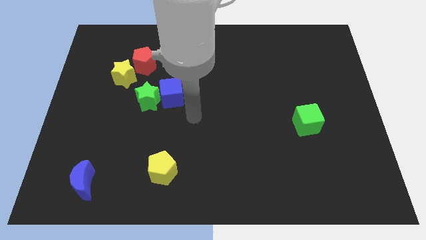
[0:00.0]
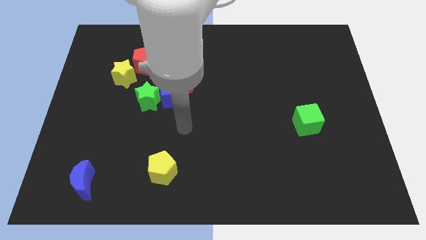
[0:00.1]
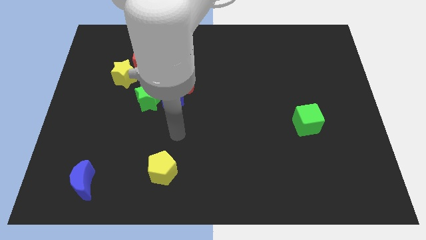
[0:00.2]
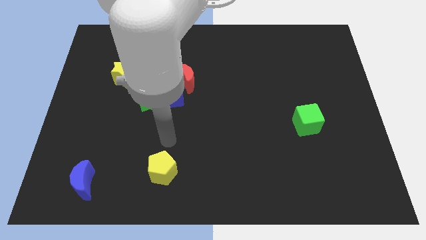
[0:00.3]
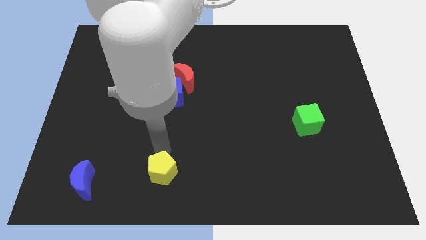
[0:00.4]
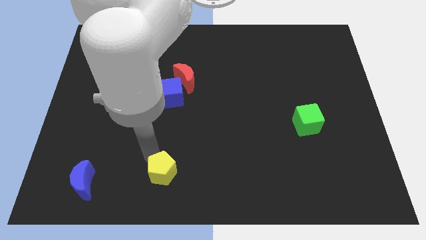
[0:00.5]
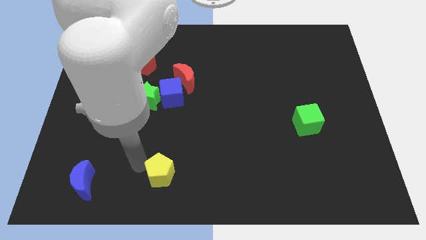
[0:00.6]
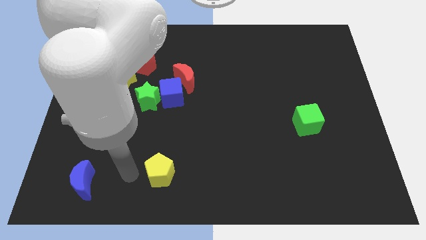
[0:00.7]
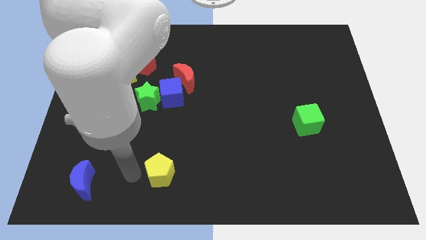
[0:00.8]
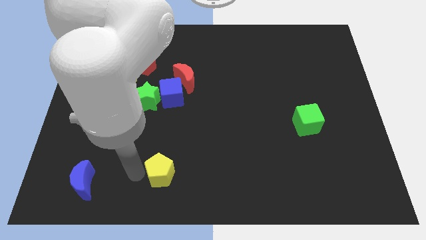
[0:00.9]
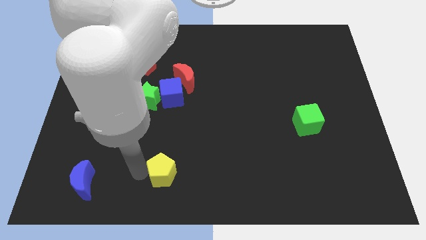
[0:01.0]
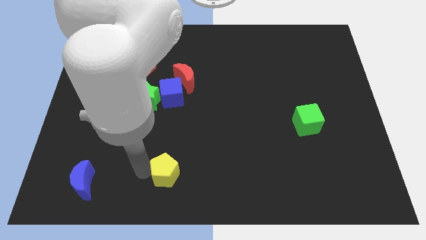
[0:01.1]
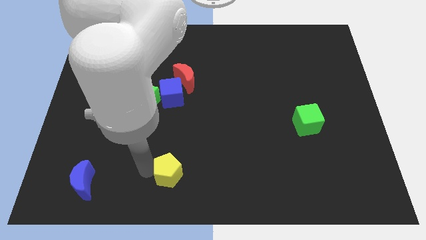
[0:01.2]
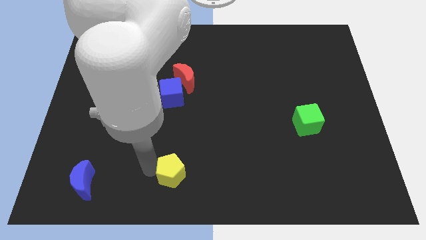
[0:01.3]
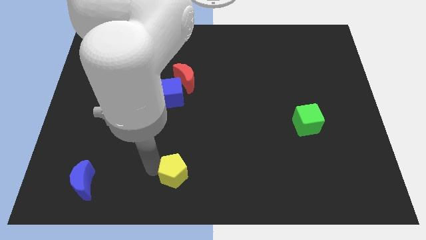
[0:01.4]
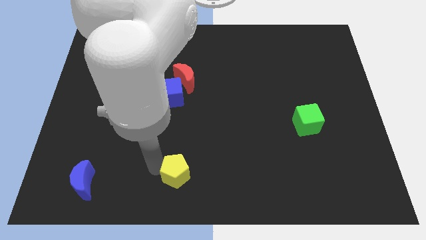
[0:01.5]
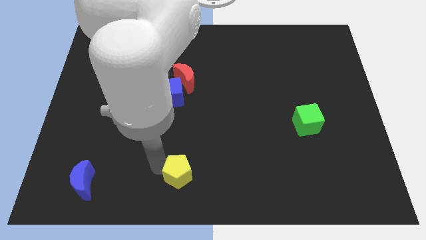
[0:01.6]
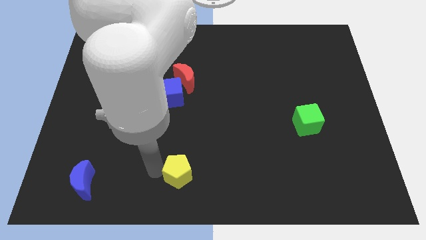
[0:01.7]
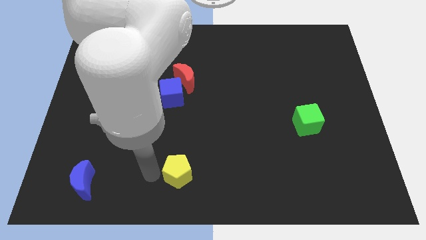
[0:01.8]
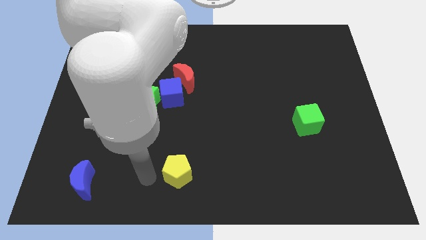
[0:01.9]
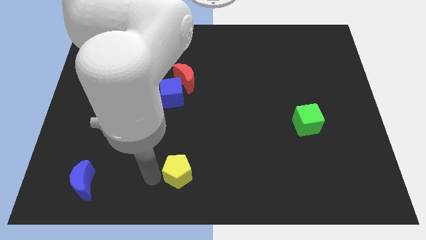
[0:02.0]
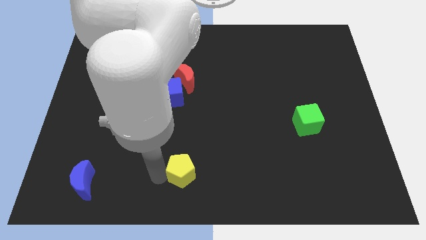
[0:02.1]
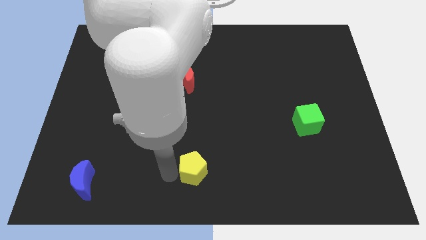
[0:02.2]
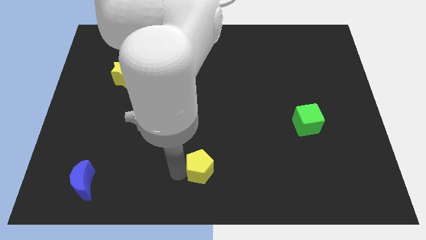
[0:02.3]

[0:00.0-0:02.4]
push the yellow pentagon a little bit to the right

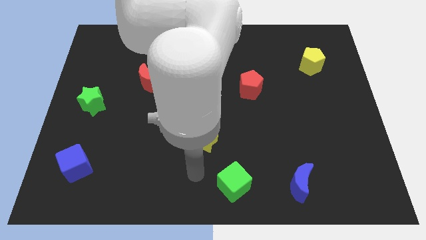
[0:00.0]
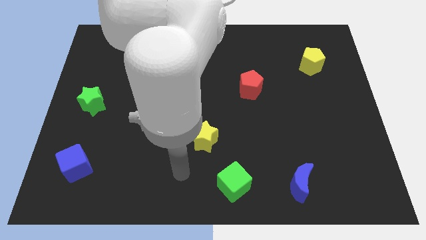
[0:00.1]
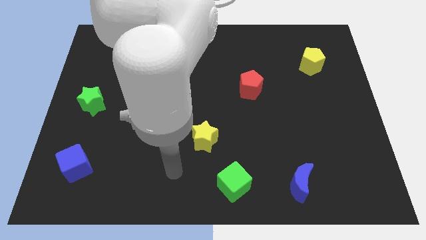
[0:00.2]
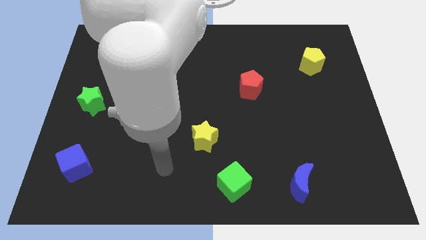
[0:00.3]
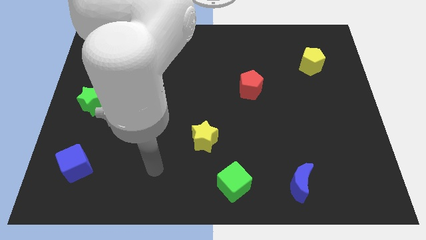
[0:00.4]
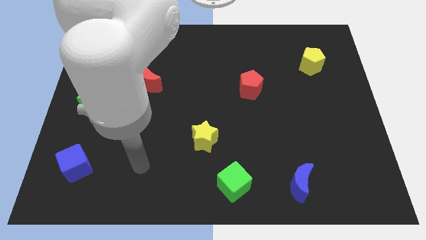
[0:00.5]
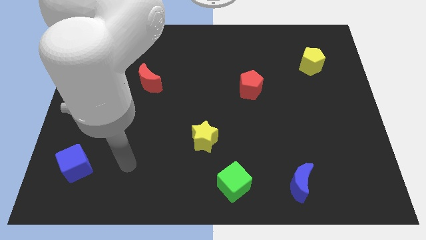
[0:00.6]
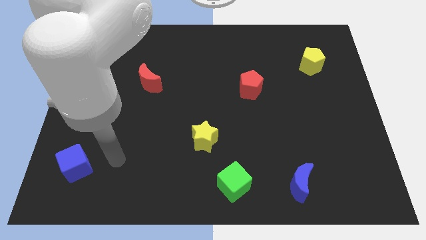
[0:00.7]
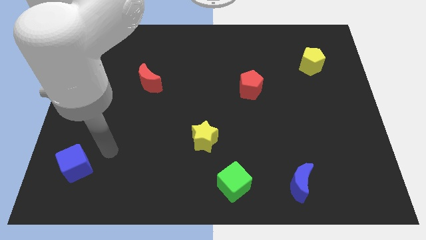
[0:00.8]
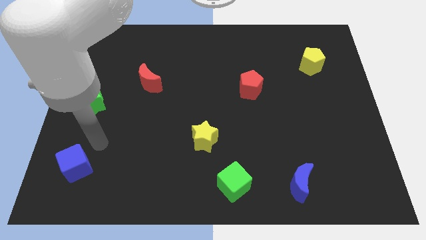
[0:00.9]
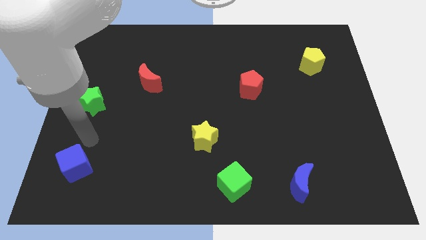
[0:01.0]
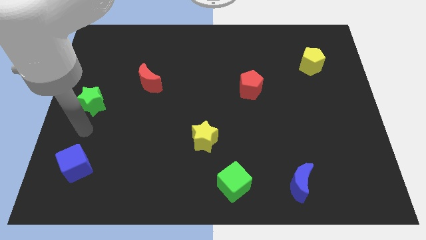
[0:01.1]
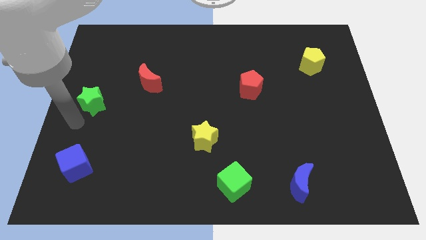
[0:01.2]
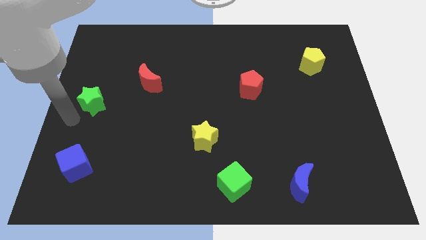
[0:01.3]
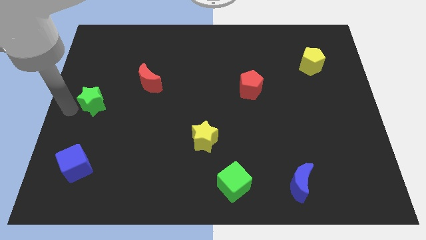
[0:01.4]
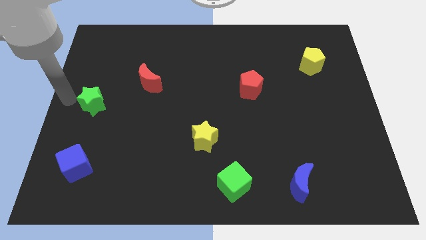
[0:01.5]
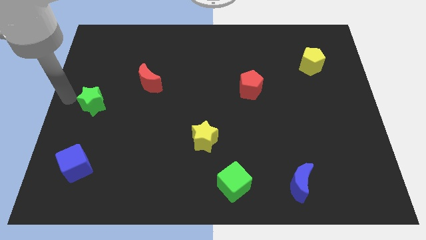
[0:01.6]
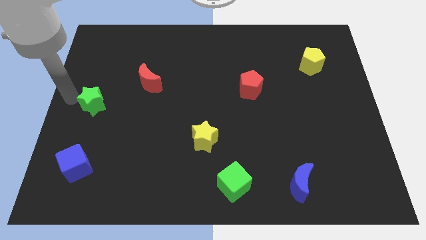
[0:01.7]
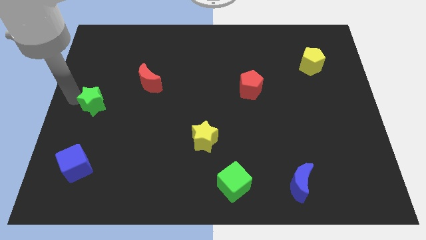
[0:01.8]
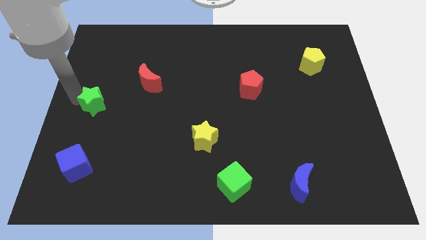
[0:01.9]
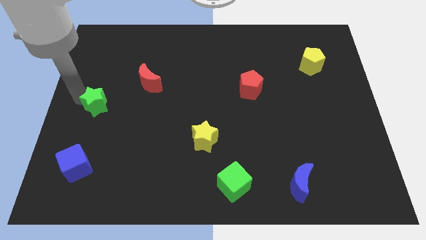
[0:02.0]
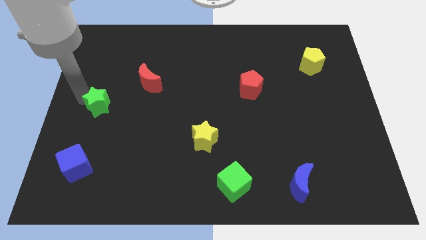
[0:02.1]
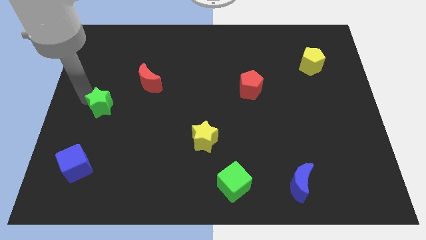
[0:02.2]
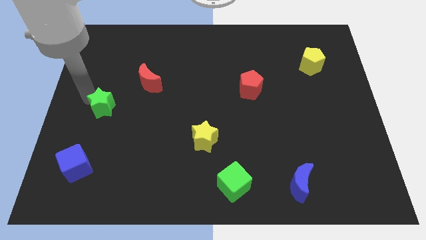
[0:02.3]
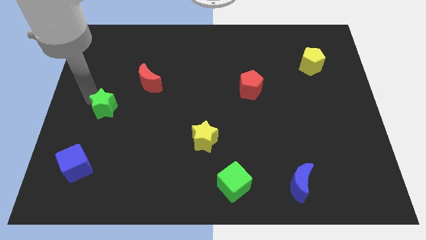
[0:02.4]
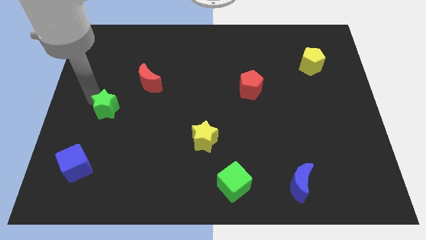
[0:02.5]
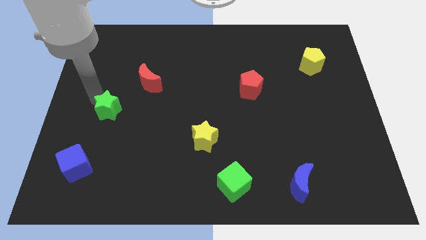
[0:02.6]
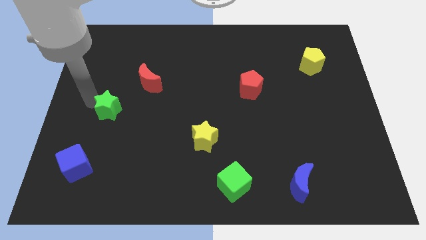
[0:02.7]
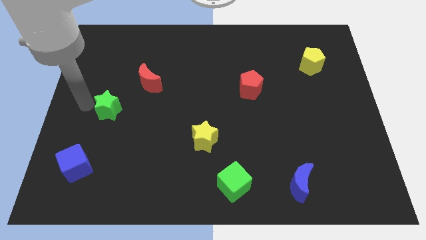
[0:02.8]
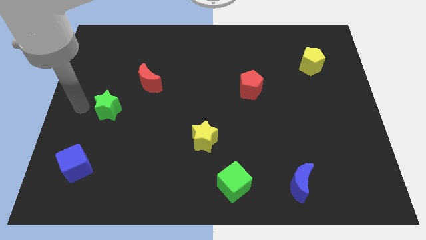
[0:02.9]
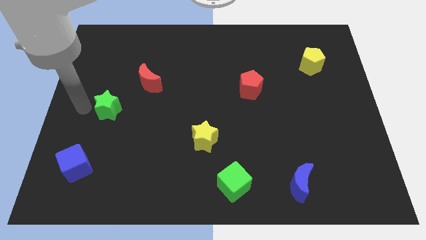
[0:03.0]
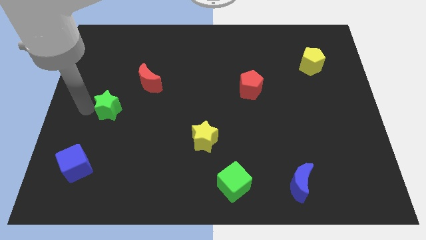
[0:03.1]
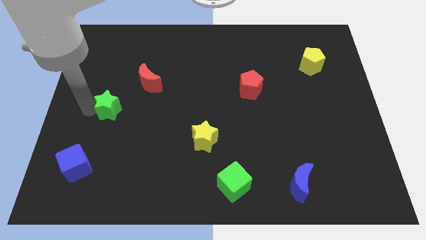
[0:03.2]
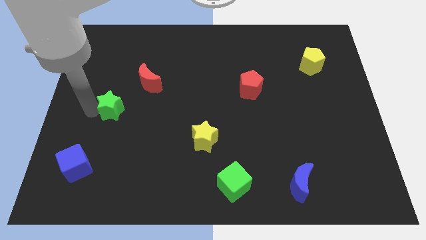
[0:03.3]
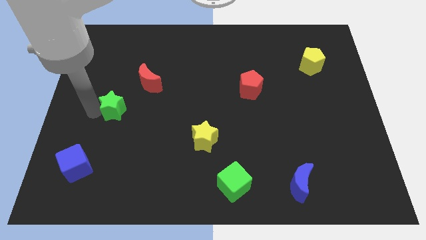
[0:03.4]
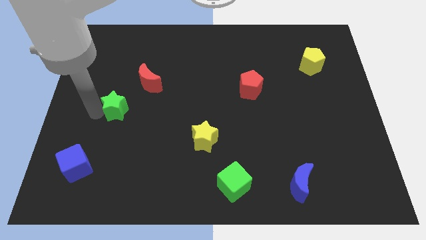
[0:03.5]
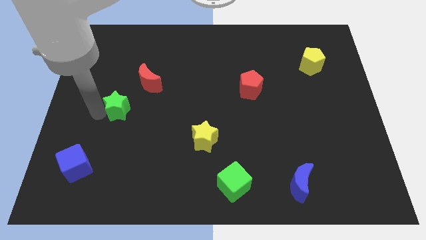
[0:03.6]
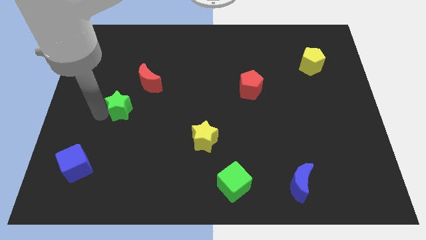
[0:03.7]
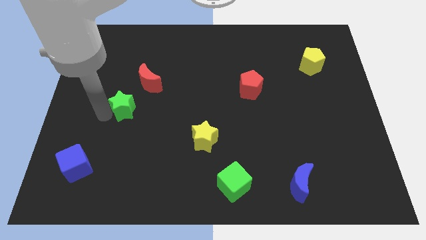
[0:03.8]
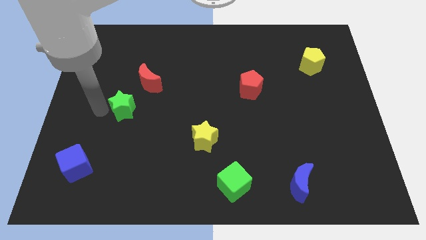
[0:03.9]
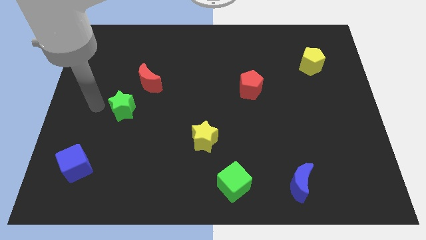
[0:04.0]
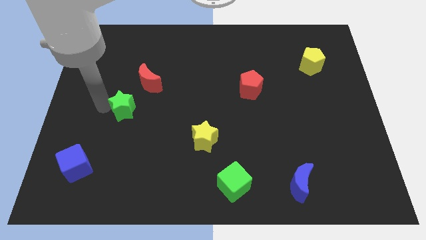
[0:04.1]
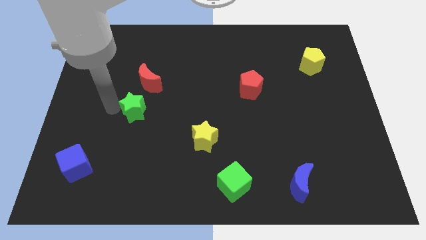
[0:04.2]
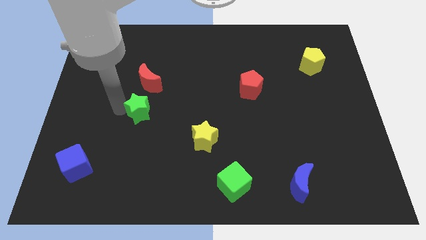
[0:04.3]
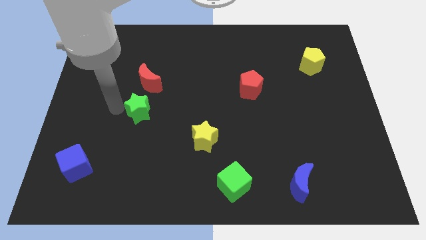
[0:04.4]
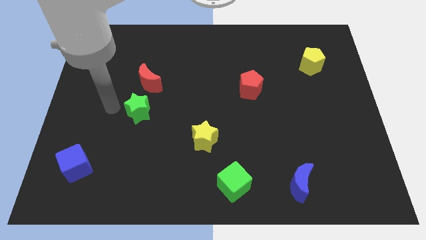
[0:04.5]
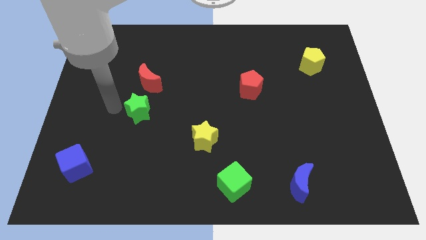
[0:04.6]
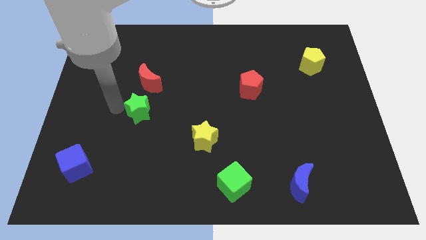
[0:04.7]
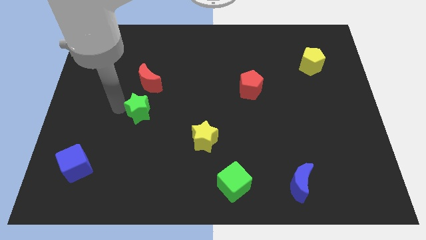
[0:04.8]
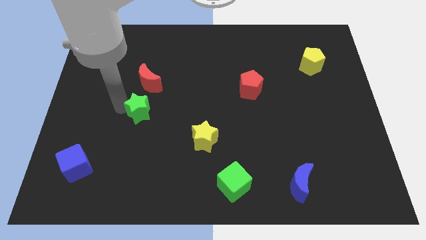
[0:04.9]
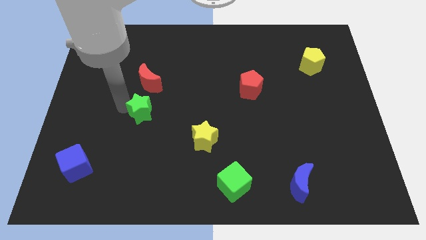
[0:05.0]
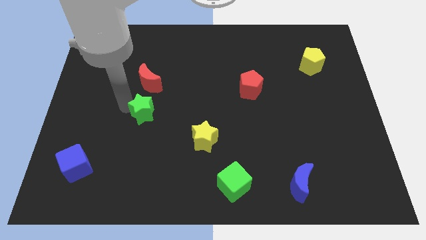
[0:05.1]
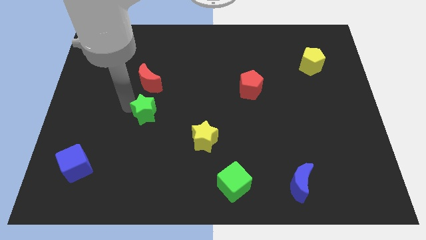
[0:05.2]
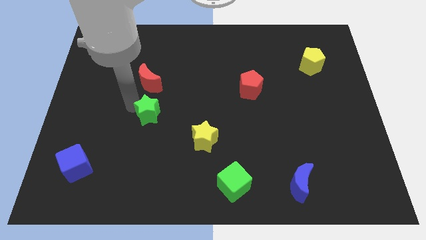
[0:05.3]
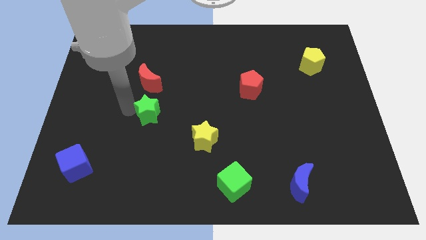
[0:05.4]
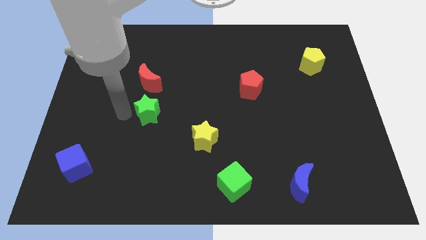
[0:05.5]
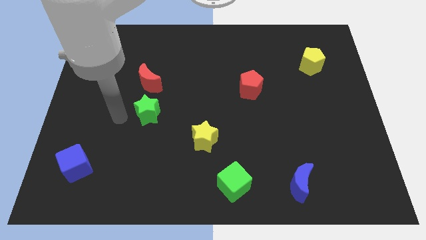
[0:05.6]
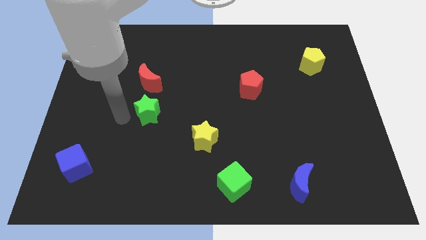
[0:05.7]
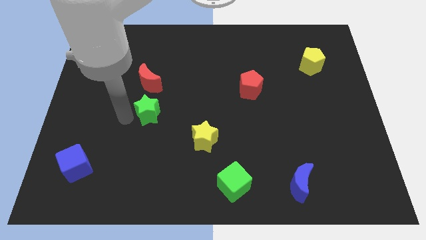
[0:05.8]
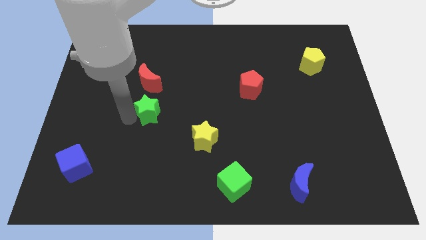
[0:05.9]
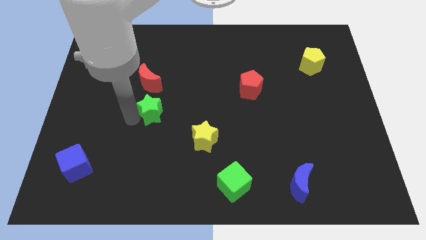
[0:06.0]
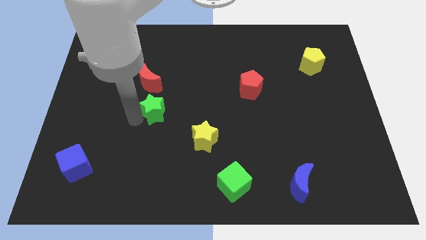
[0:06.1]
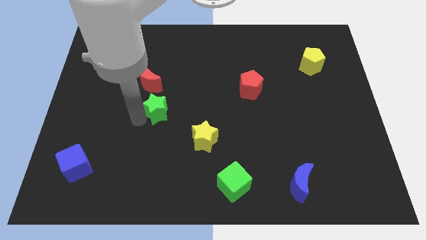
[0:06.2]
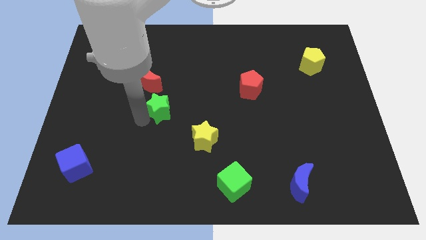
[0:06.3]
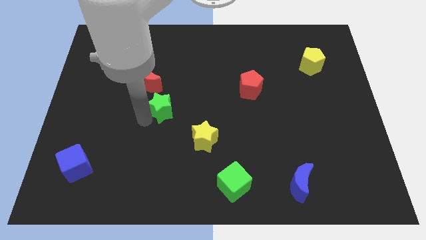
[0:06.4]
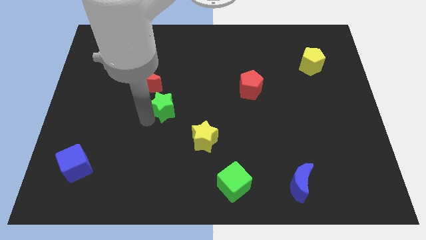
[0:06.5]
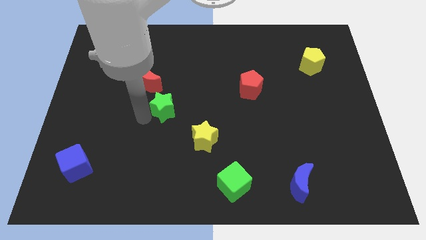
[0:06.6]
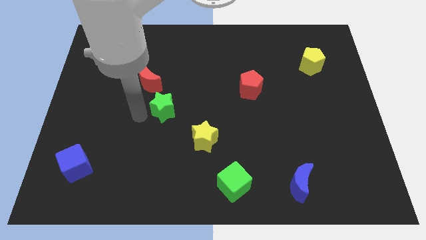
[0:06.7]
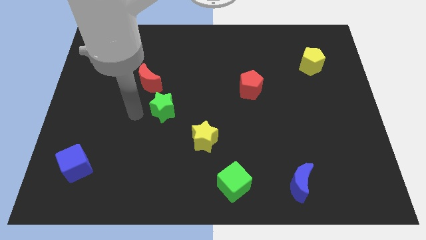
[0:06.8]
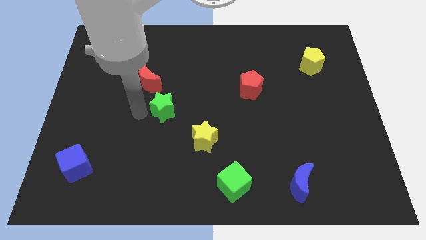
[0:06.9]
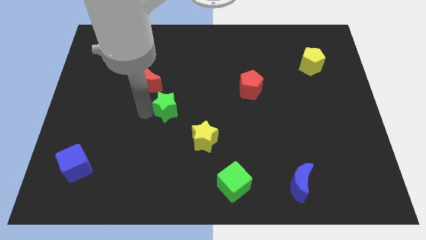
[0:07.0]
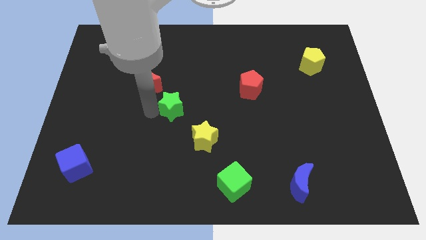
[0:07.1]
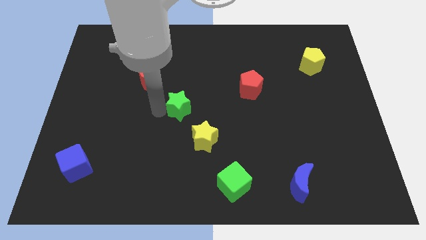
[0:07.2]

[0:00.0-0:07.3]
push the green star to the right
